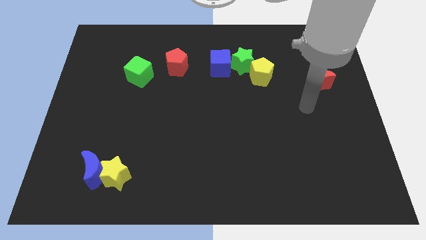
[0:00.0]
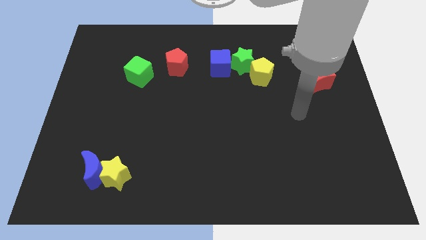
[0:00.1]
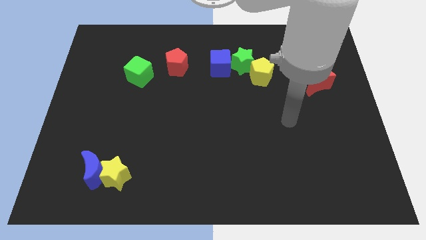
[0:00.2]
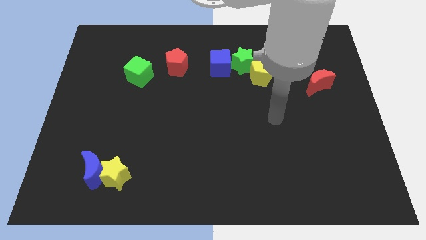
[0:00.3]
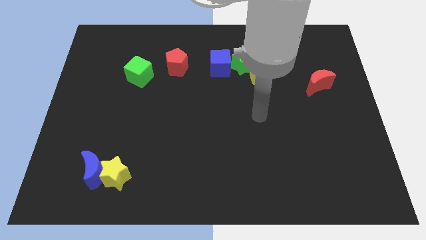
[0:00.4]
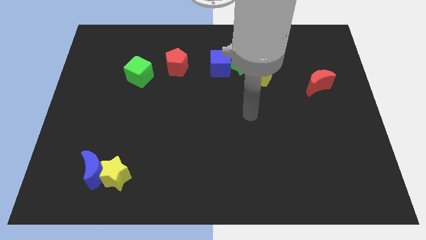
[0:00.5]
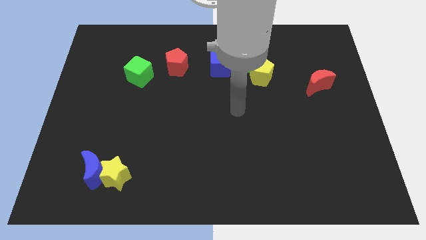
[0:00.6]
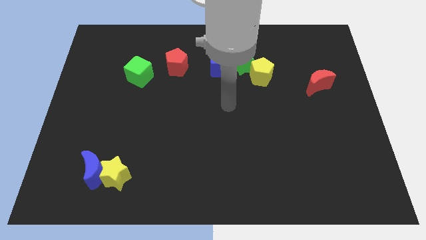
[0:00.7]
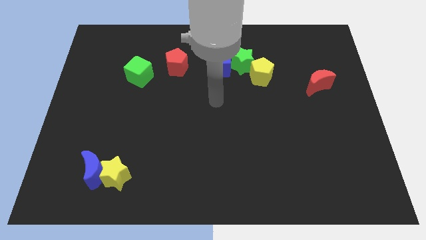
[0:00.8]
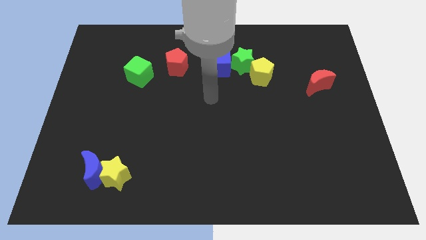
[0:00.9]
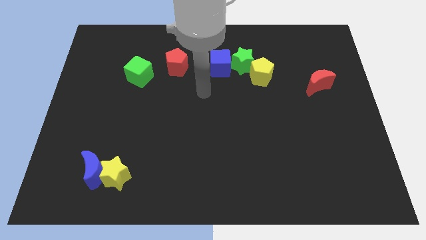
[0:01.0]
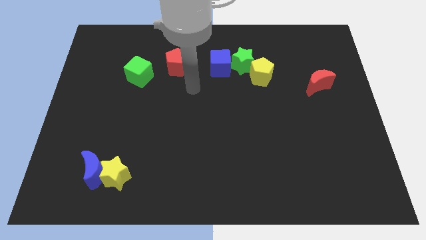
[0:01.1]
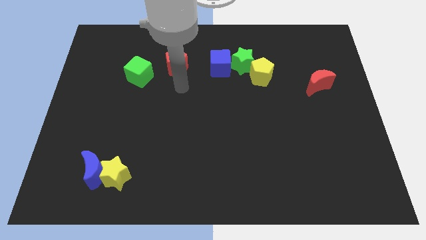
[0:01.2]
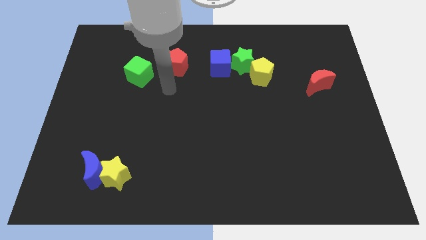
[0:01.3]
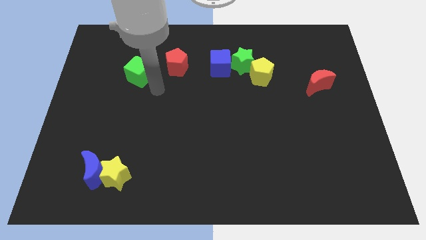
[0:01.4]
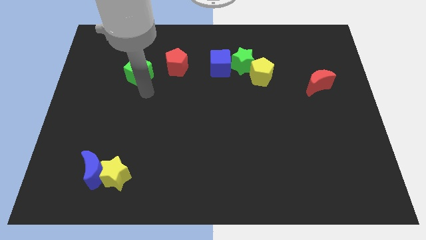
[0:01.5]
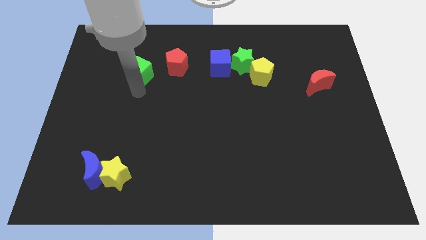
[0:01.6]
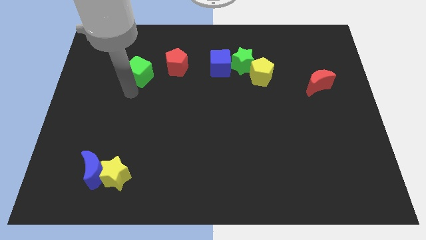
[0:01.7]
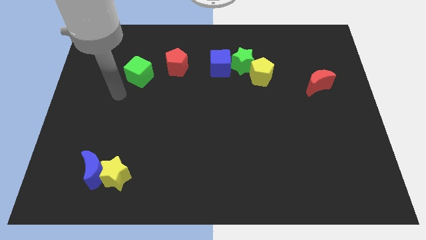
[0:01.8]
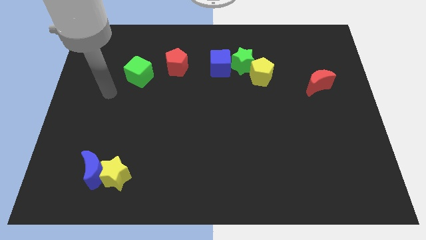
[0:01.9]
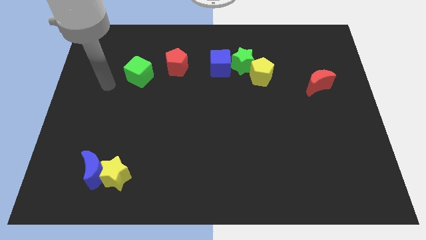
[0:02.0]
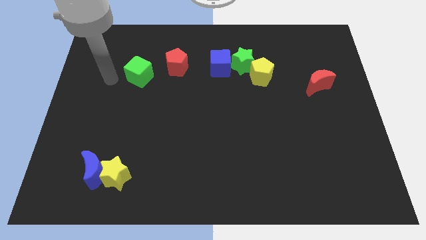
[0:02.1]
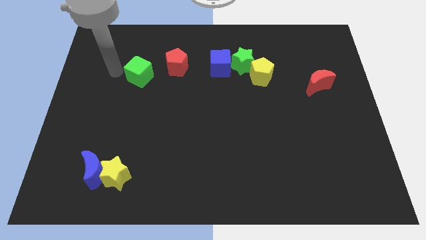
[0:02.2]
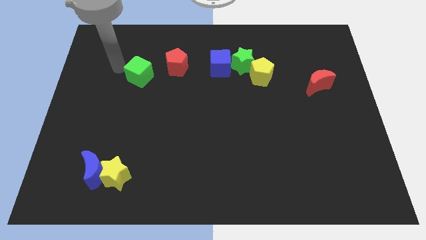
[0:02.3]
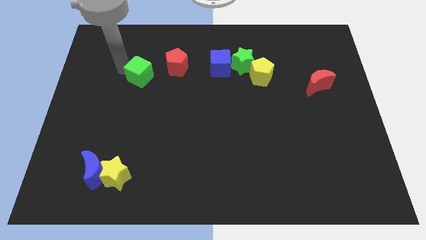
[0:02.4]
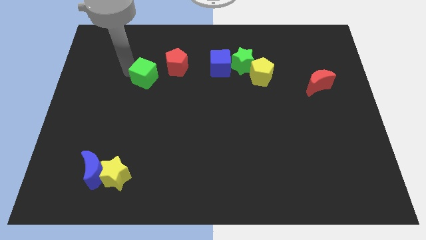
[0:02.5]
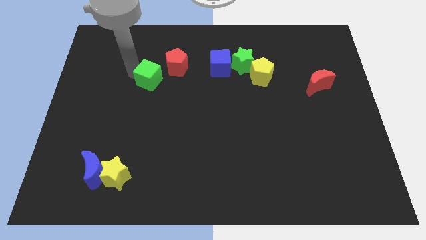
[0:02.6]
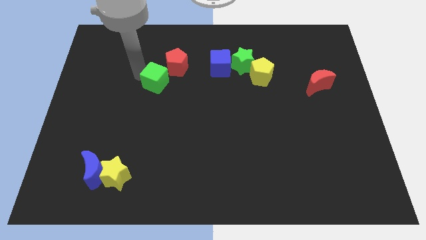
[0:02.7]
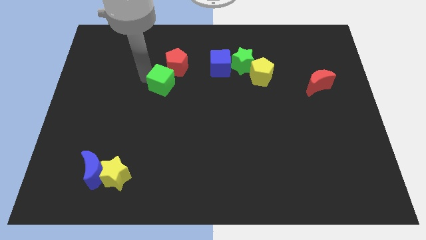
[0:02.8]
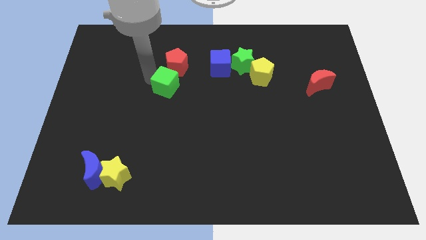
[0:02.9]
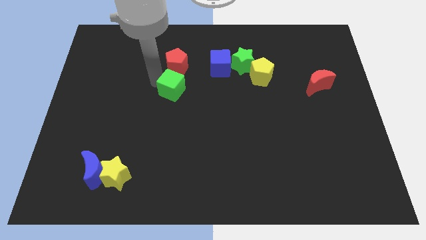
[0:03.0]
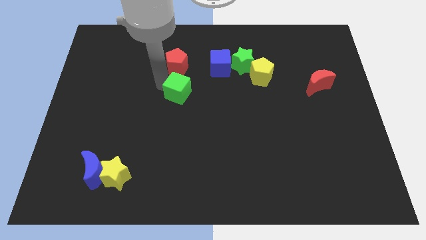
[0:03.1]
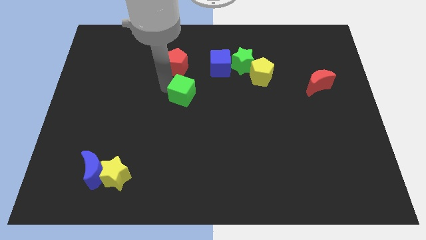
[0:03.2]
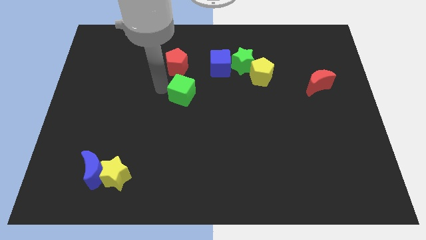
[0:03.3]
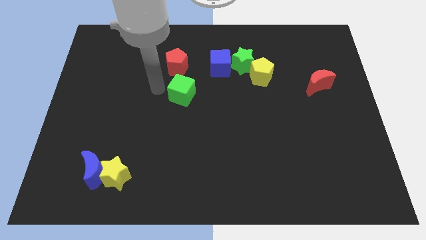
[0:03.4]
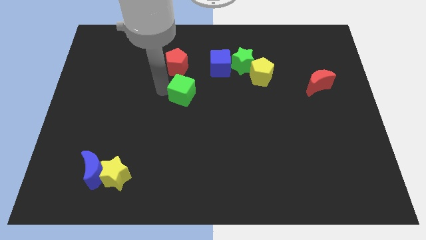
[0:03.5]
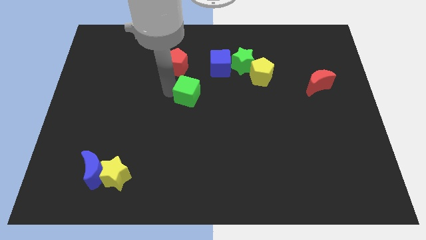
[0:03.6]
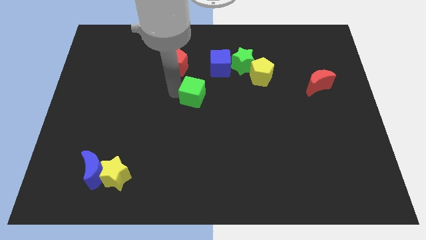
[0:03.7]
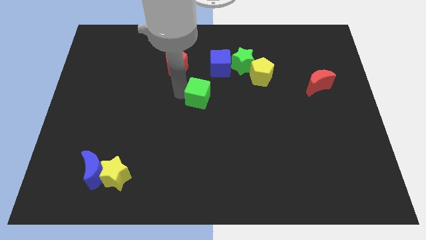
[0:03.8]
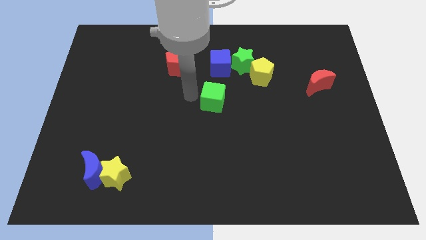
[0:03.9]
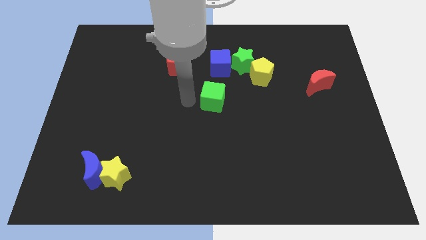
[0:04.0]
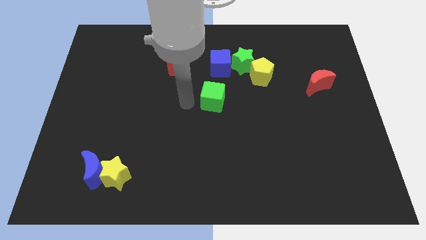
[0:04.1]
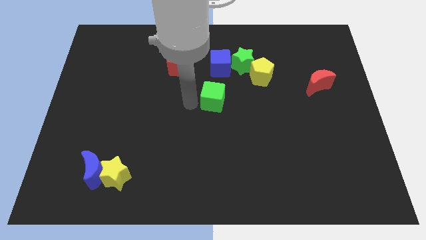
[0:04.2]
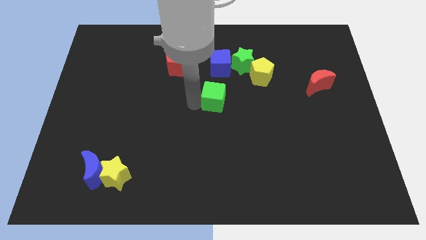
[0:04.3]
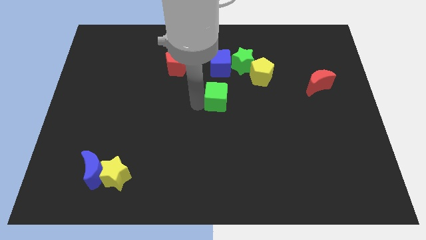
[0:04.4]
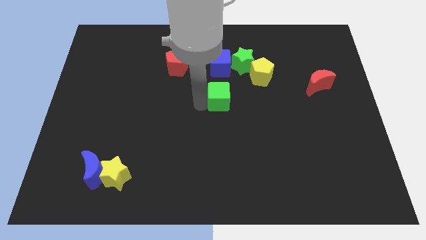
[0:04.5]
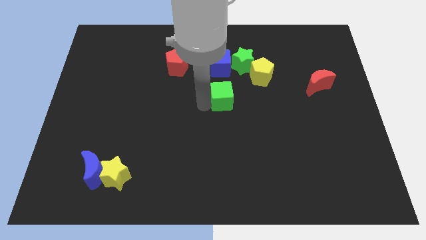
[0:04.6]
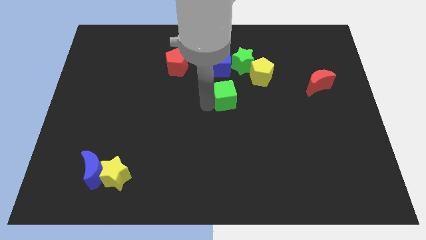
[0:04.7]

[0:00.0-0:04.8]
slide the green cube to the bottom of the green star

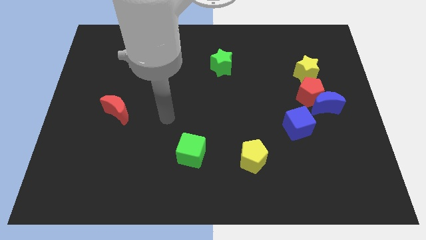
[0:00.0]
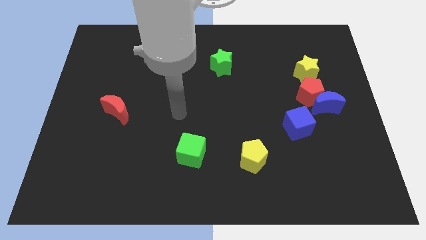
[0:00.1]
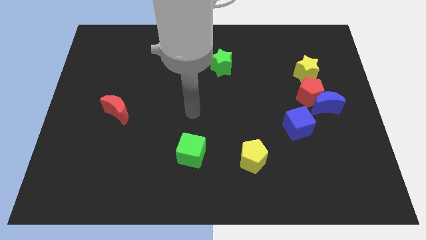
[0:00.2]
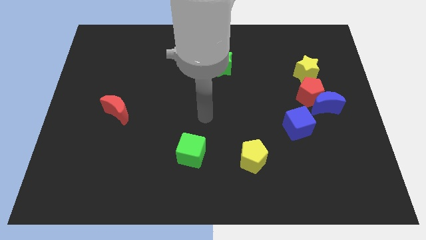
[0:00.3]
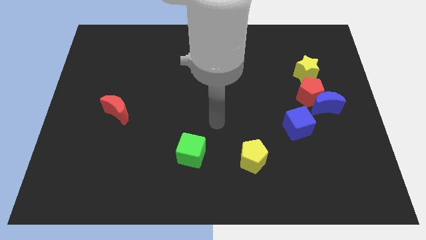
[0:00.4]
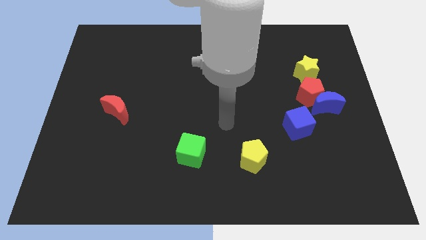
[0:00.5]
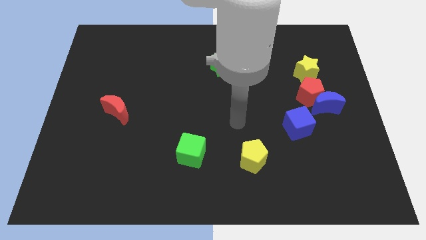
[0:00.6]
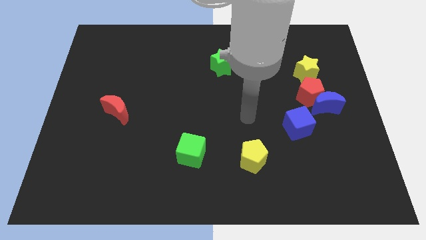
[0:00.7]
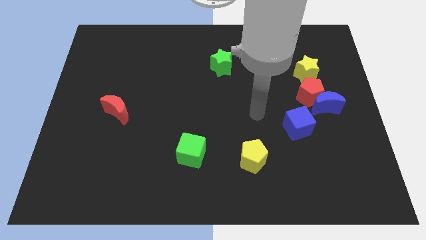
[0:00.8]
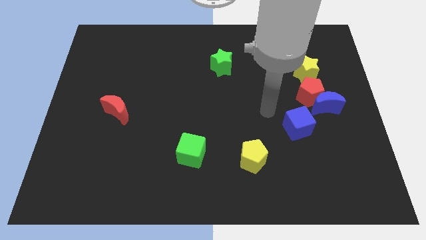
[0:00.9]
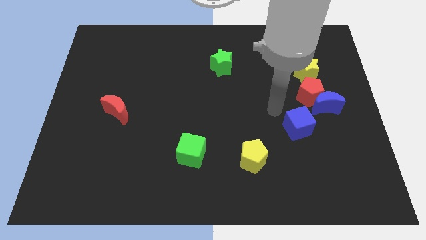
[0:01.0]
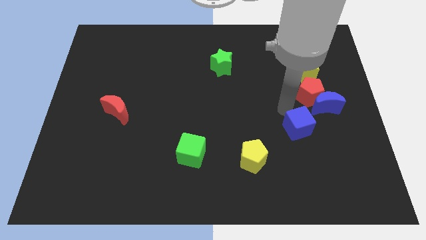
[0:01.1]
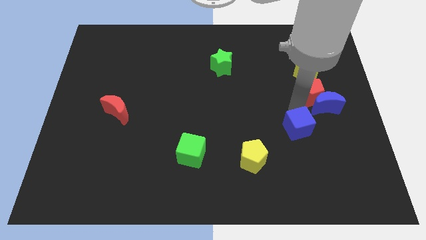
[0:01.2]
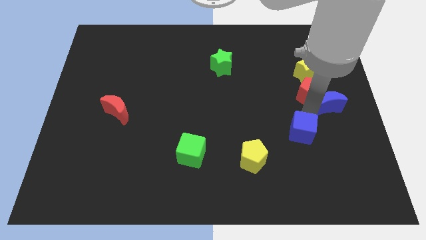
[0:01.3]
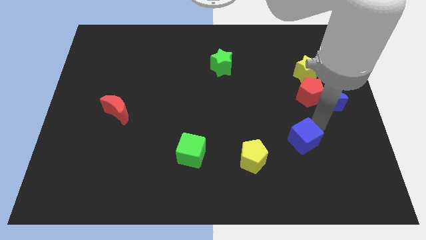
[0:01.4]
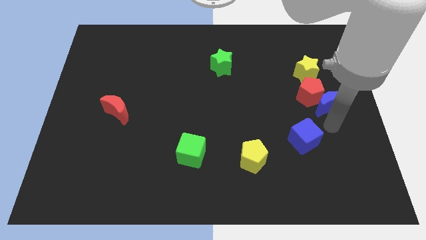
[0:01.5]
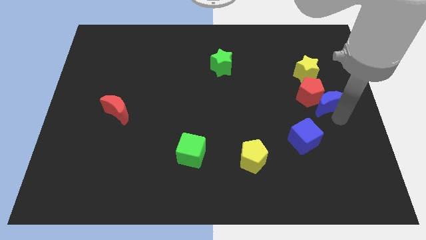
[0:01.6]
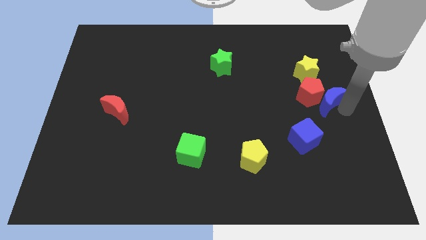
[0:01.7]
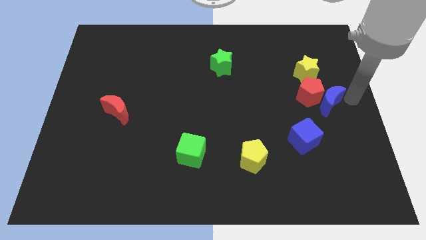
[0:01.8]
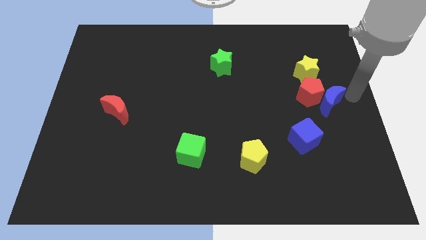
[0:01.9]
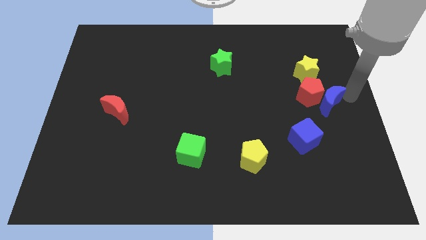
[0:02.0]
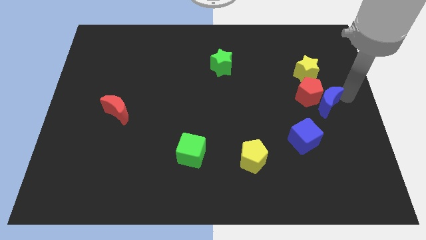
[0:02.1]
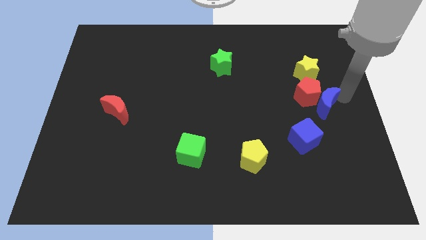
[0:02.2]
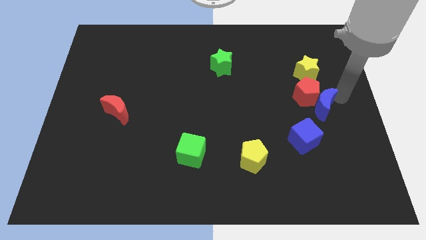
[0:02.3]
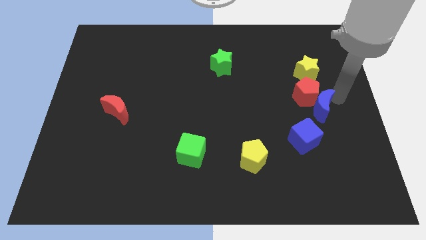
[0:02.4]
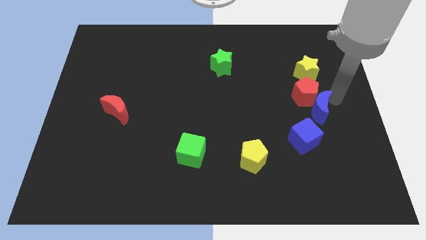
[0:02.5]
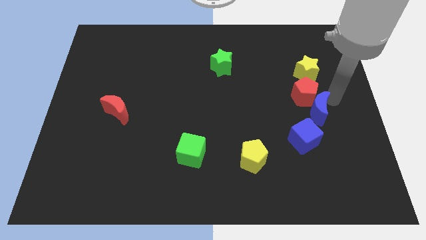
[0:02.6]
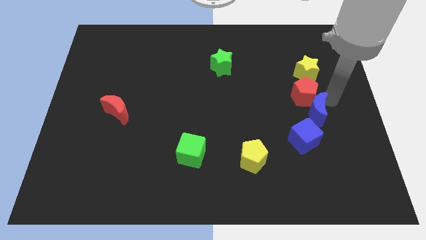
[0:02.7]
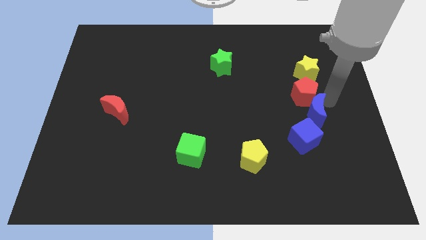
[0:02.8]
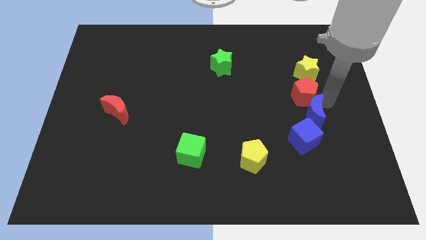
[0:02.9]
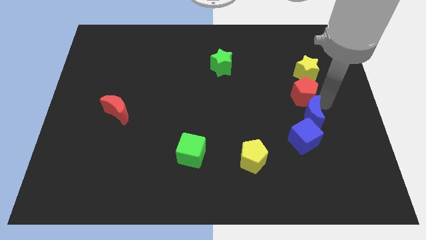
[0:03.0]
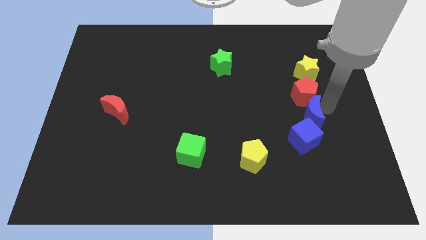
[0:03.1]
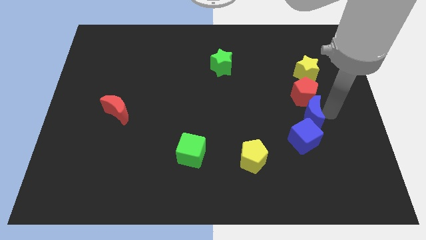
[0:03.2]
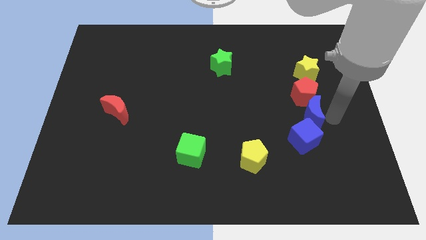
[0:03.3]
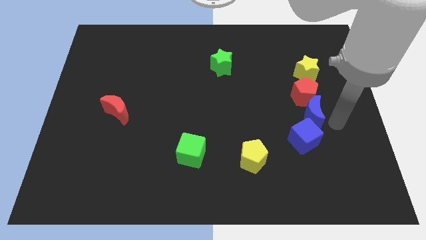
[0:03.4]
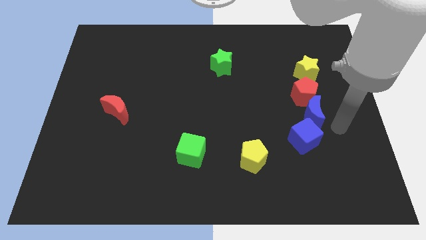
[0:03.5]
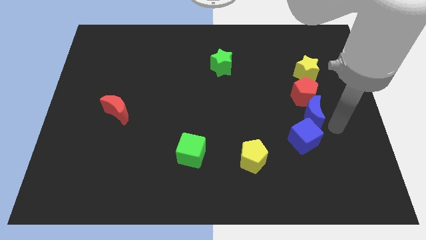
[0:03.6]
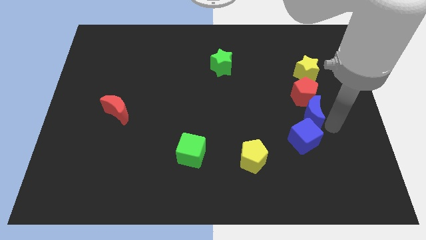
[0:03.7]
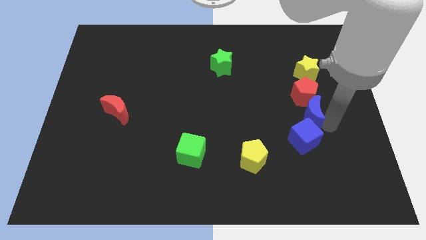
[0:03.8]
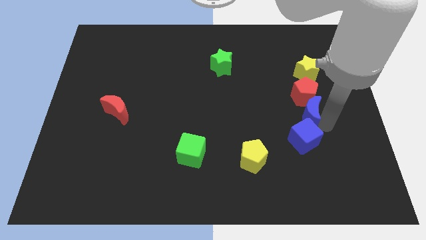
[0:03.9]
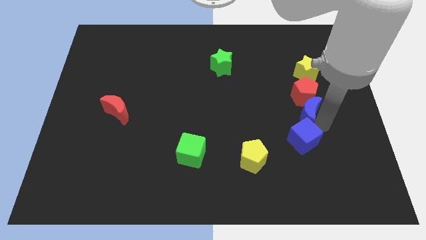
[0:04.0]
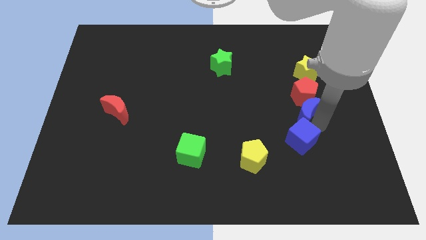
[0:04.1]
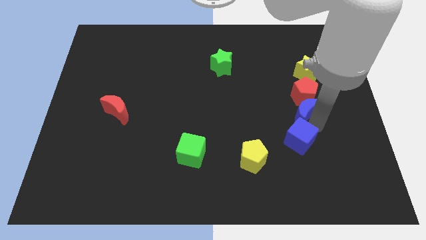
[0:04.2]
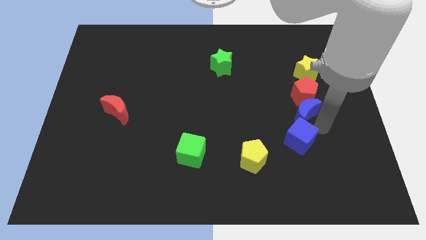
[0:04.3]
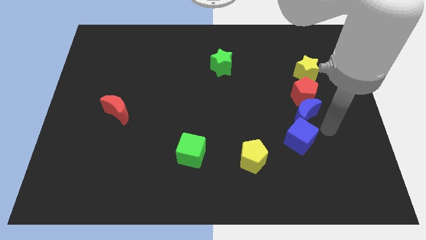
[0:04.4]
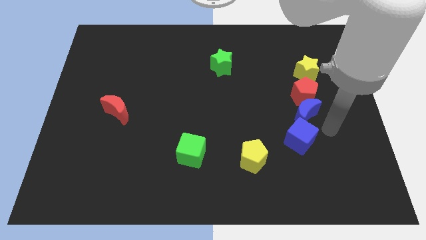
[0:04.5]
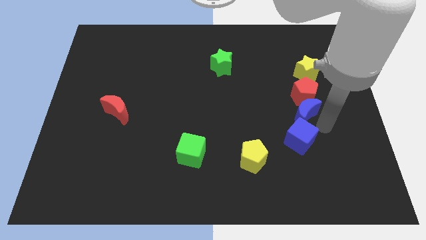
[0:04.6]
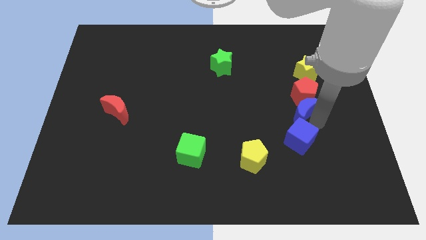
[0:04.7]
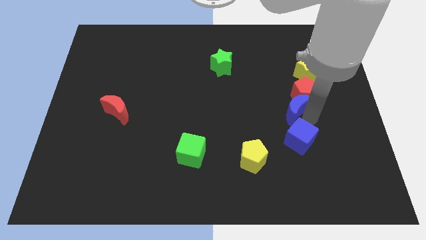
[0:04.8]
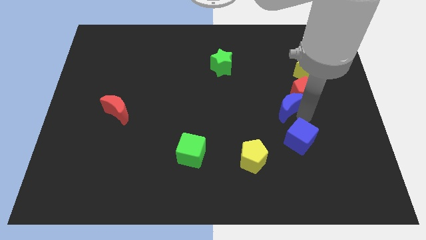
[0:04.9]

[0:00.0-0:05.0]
put the blue moon to the left of the red pentagon
